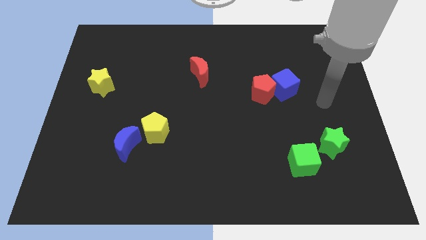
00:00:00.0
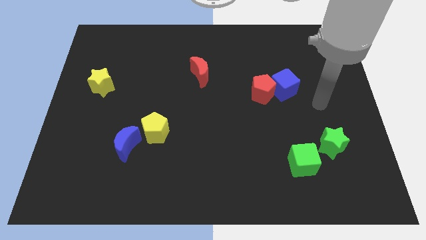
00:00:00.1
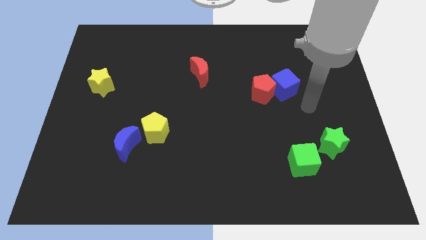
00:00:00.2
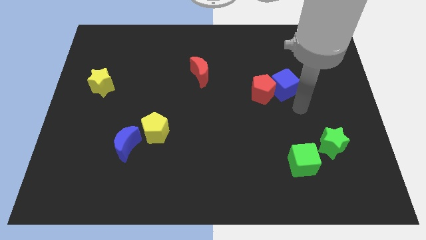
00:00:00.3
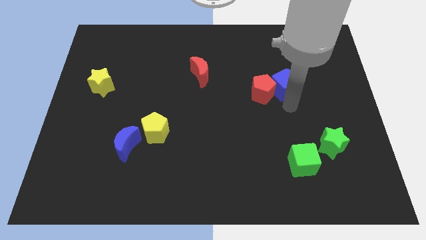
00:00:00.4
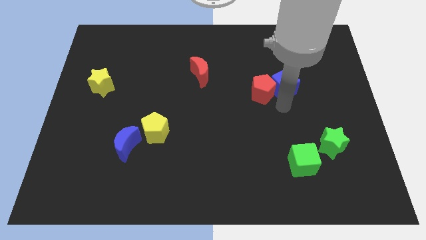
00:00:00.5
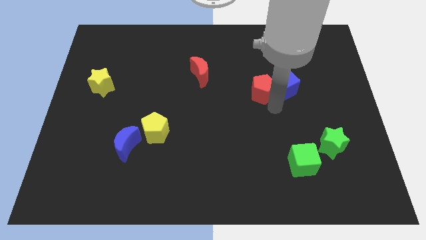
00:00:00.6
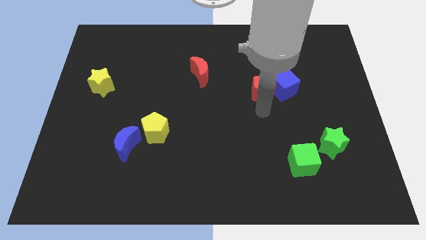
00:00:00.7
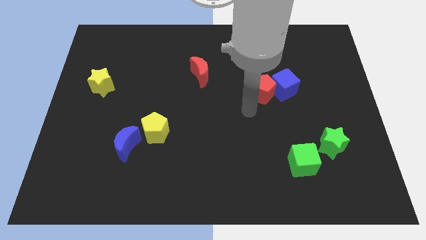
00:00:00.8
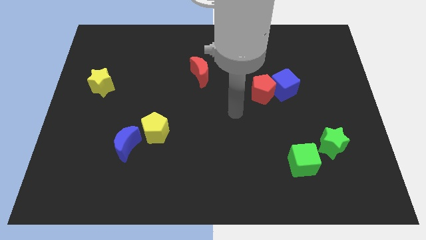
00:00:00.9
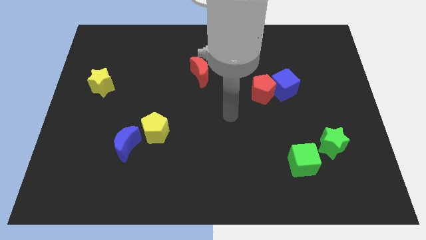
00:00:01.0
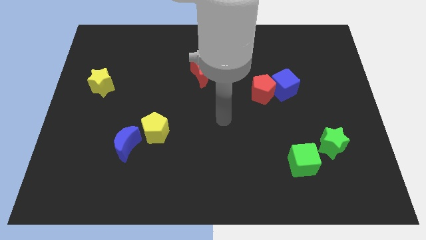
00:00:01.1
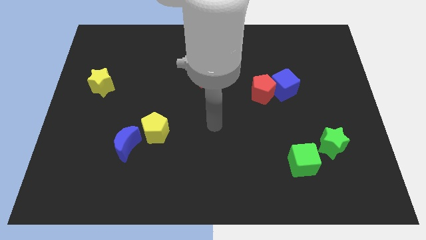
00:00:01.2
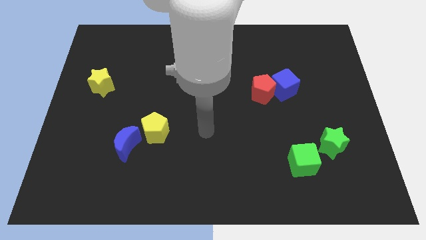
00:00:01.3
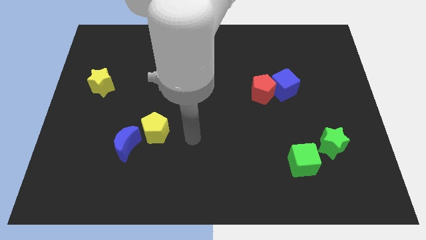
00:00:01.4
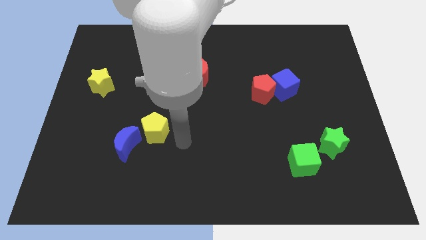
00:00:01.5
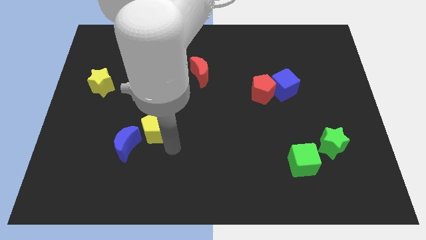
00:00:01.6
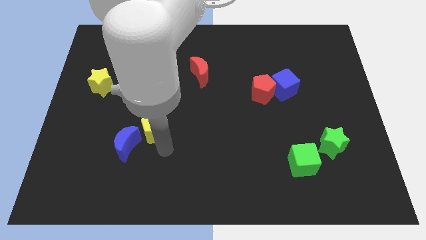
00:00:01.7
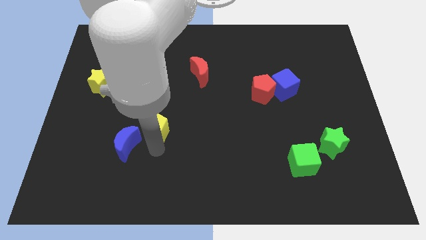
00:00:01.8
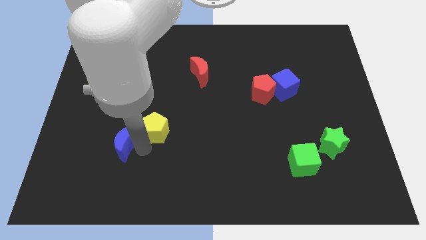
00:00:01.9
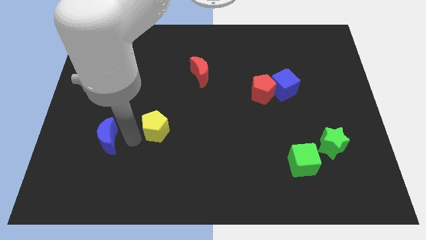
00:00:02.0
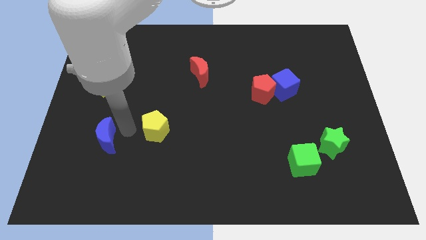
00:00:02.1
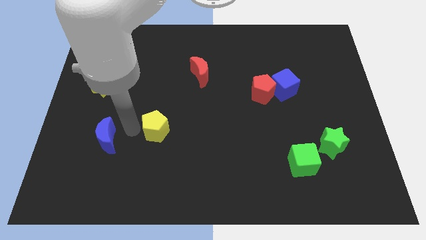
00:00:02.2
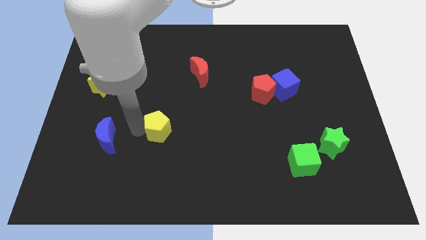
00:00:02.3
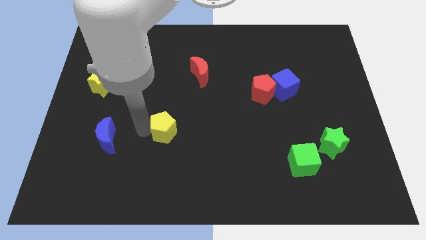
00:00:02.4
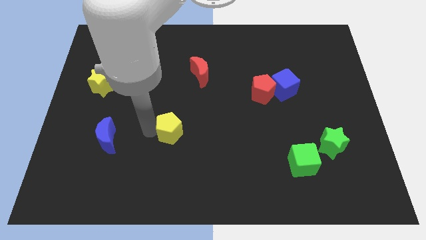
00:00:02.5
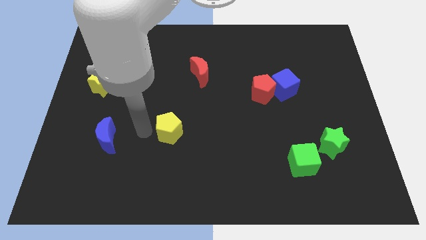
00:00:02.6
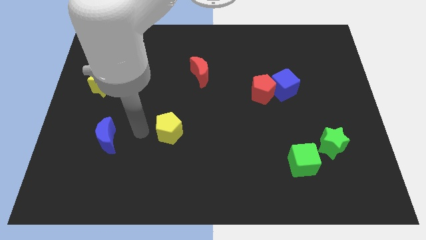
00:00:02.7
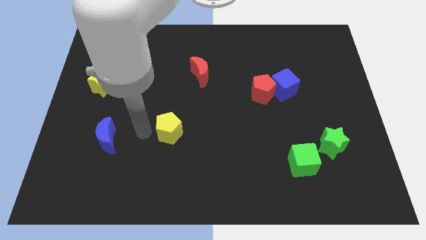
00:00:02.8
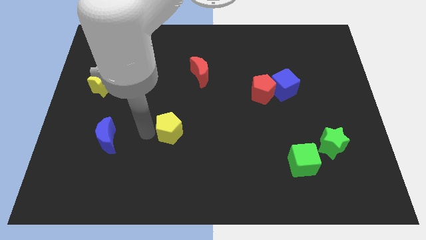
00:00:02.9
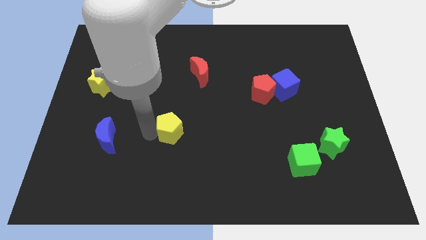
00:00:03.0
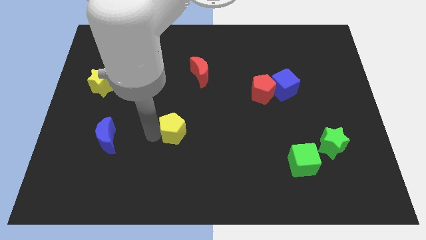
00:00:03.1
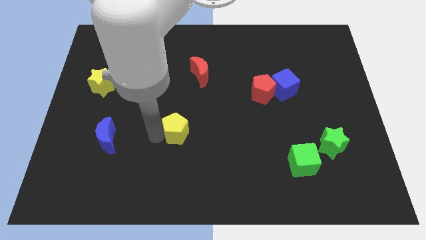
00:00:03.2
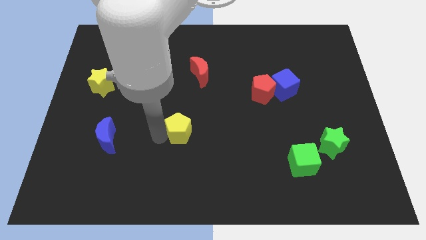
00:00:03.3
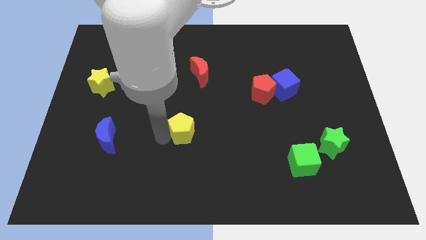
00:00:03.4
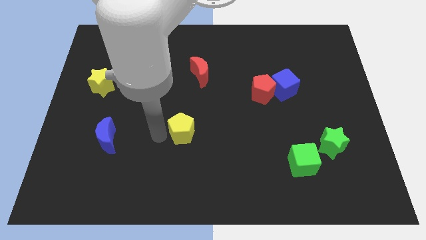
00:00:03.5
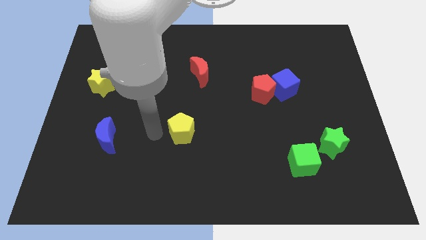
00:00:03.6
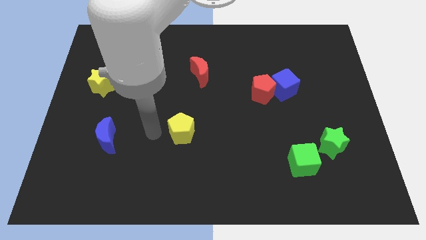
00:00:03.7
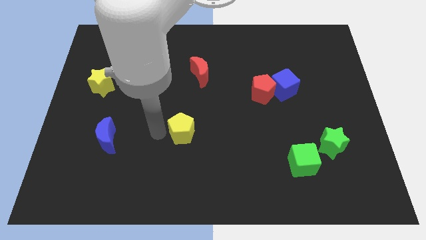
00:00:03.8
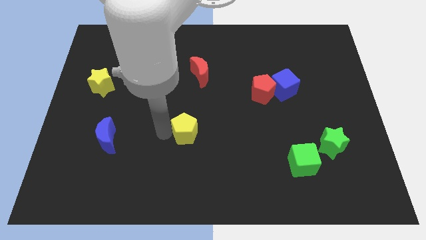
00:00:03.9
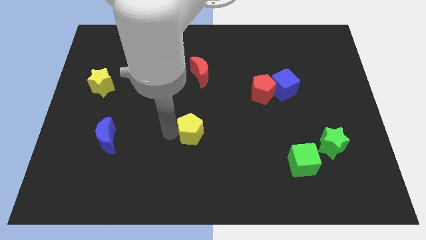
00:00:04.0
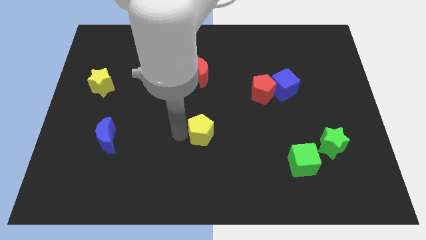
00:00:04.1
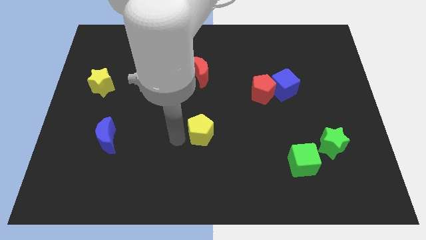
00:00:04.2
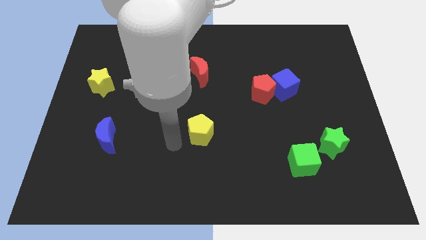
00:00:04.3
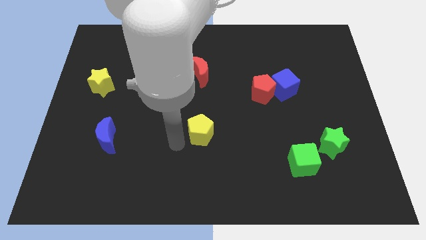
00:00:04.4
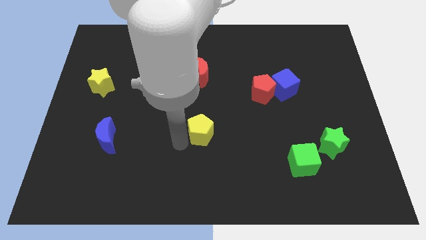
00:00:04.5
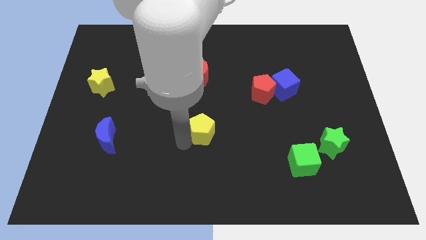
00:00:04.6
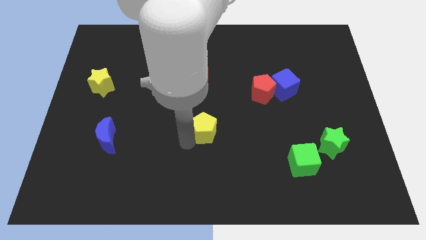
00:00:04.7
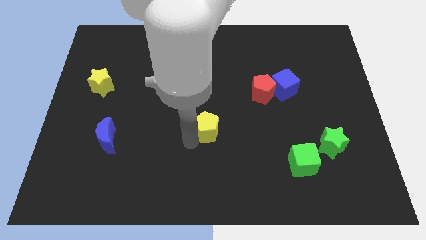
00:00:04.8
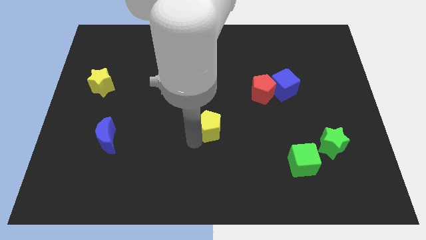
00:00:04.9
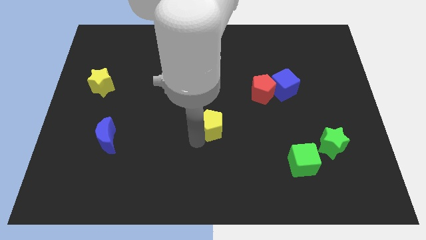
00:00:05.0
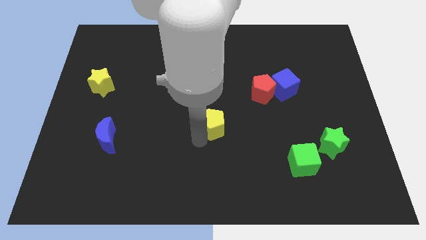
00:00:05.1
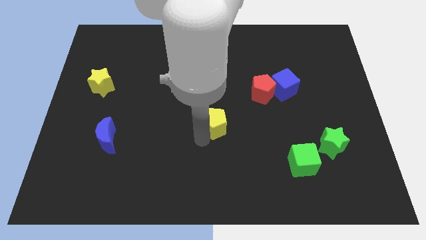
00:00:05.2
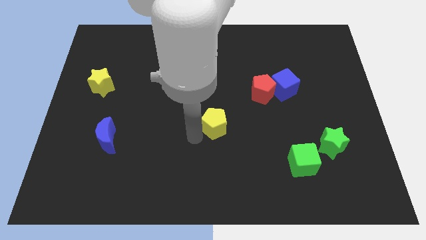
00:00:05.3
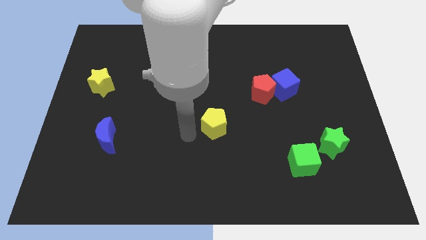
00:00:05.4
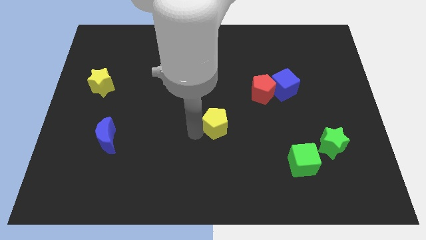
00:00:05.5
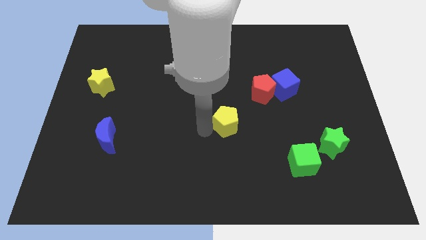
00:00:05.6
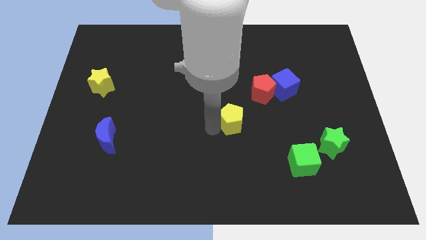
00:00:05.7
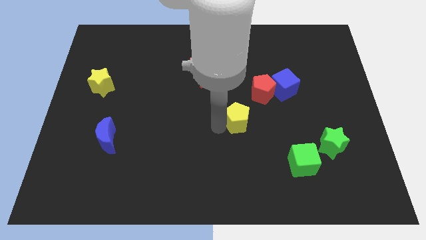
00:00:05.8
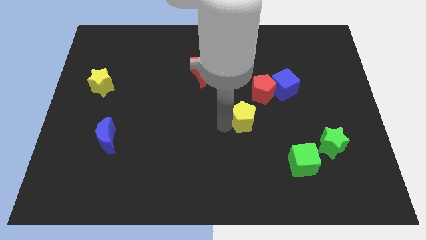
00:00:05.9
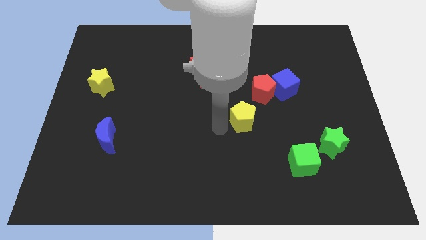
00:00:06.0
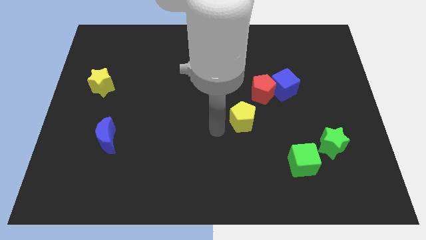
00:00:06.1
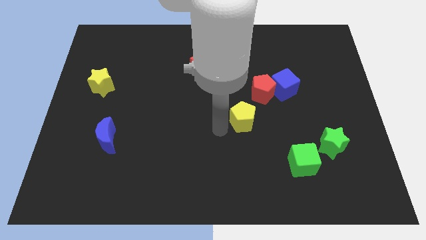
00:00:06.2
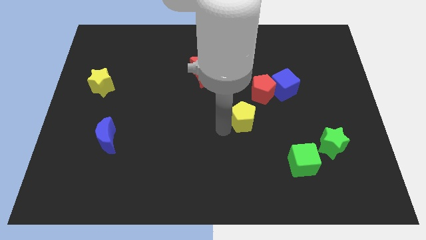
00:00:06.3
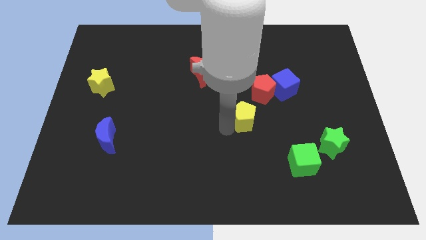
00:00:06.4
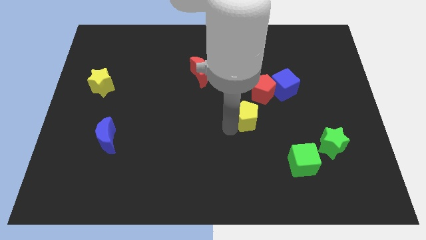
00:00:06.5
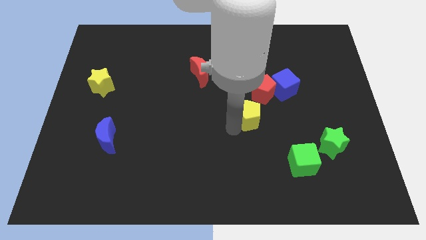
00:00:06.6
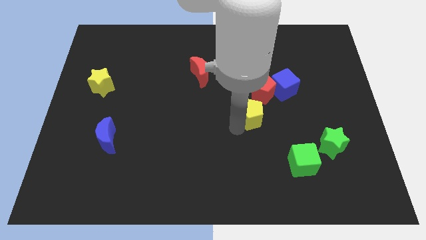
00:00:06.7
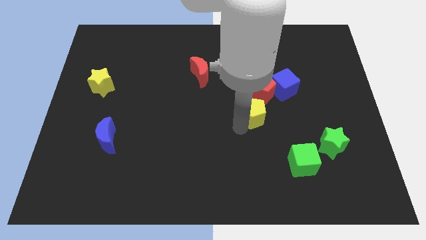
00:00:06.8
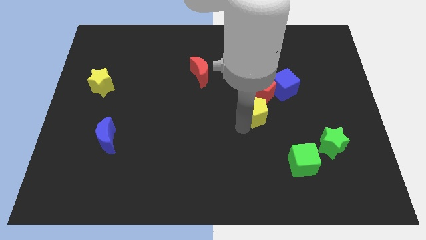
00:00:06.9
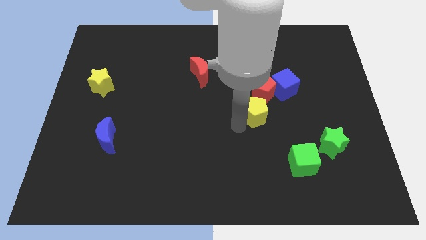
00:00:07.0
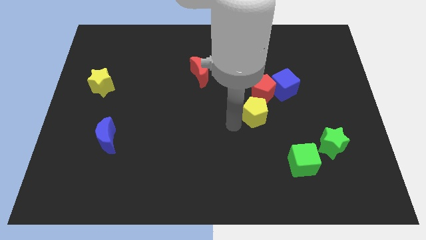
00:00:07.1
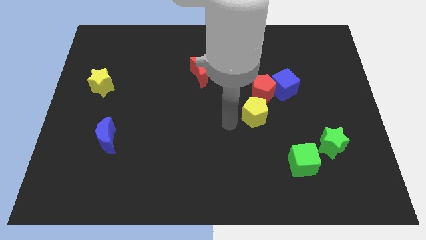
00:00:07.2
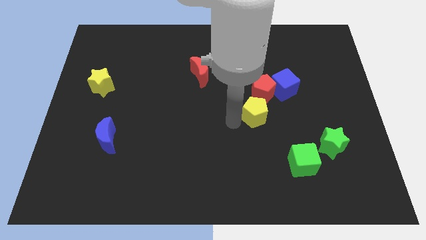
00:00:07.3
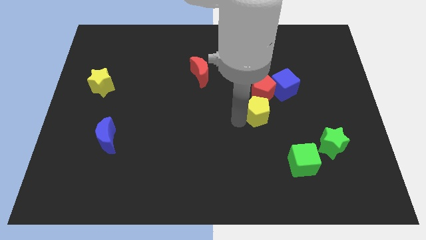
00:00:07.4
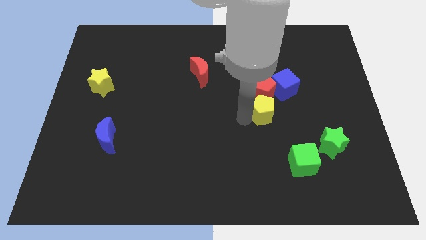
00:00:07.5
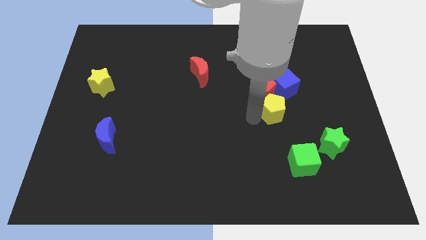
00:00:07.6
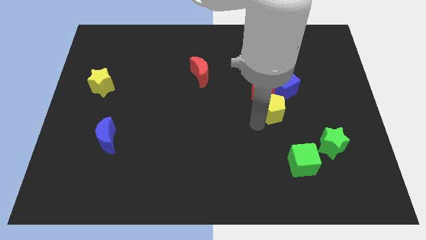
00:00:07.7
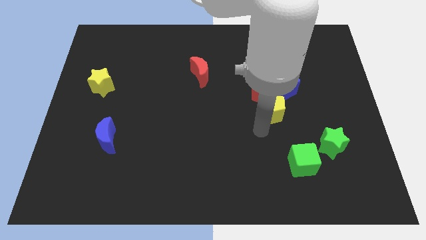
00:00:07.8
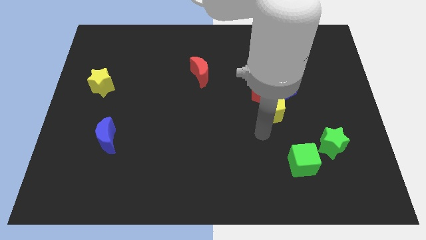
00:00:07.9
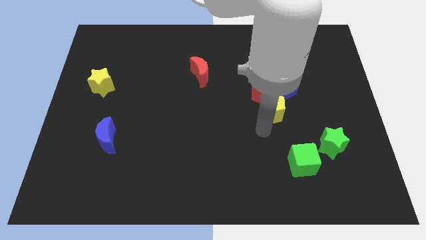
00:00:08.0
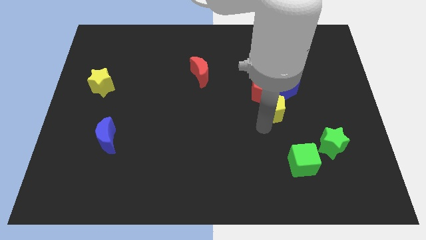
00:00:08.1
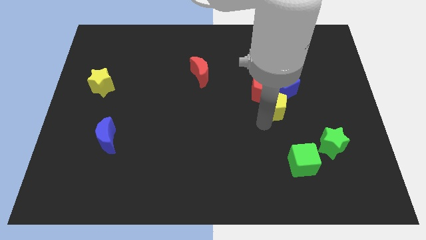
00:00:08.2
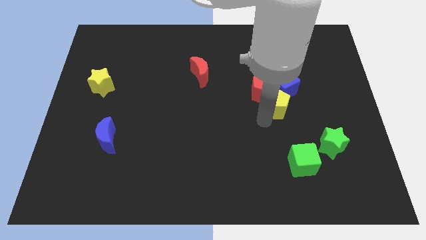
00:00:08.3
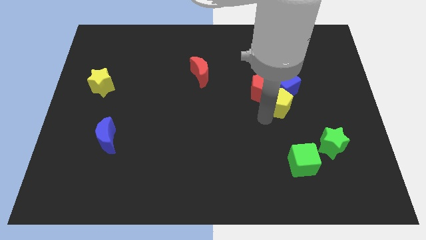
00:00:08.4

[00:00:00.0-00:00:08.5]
push the yellow pentagon towards the blue cube
